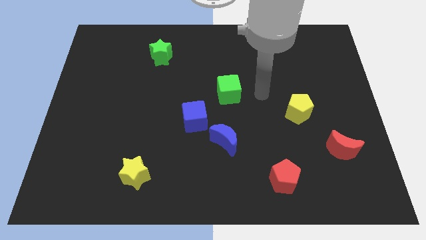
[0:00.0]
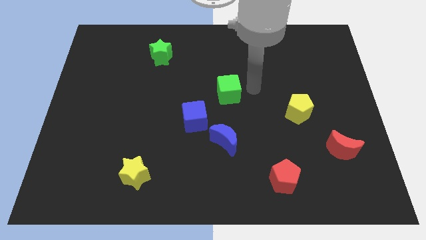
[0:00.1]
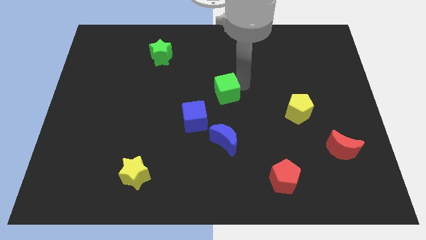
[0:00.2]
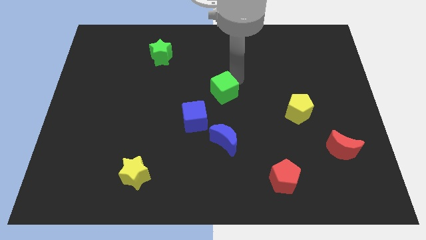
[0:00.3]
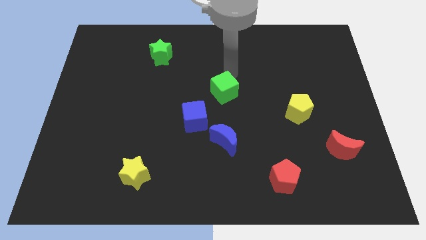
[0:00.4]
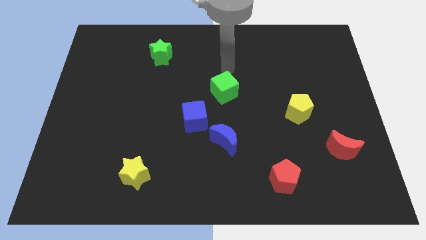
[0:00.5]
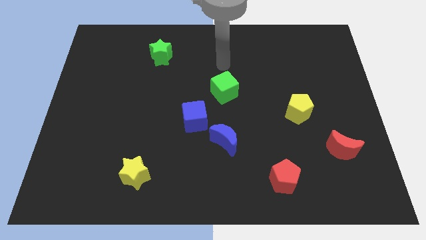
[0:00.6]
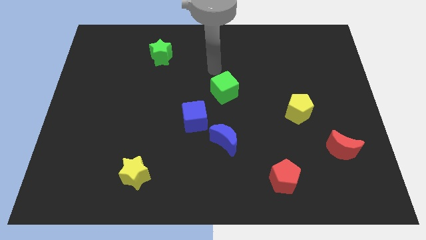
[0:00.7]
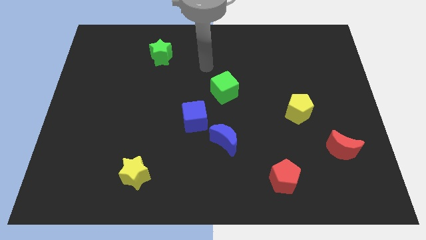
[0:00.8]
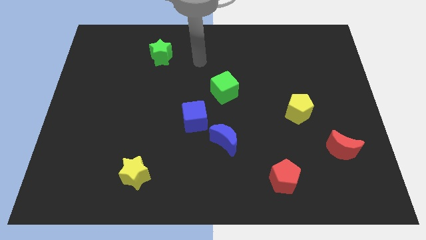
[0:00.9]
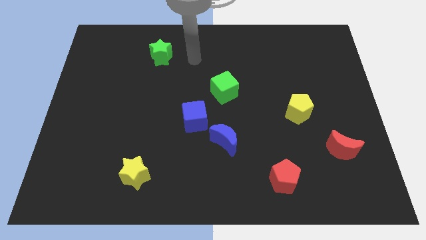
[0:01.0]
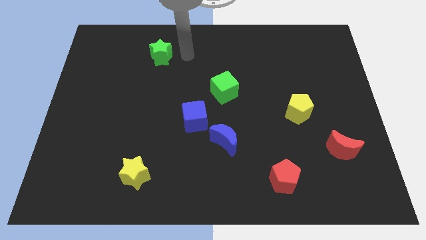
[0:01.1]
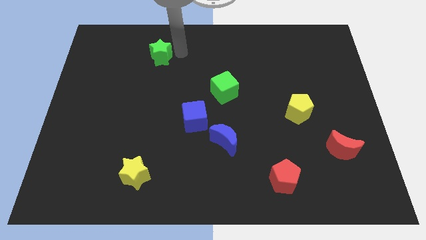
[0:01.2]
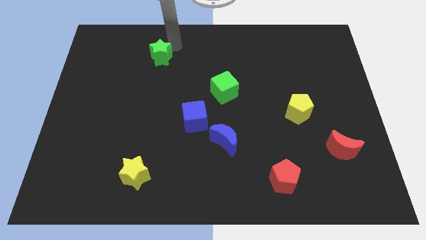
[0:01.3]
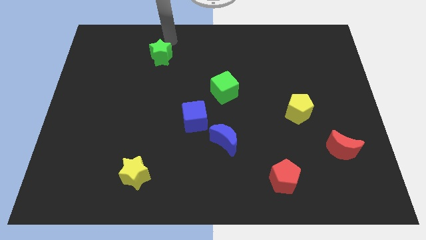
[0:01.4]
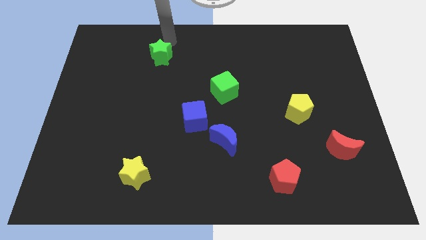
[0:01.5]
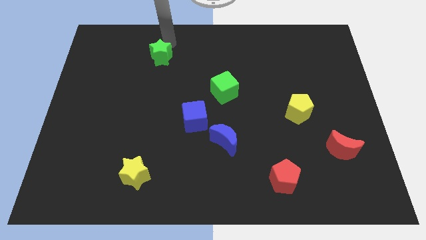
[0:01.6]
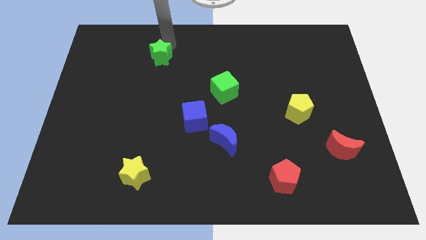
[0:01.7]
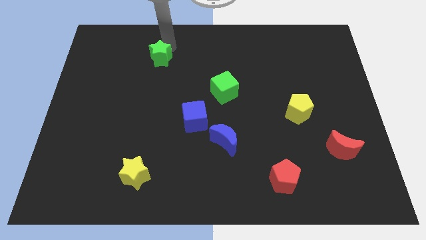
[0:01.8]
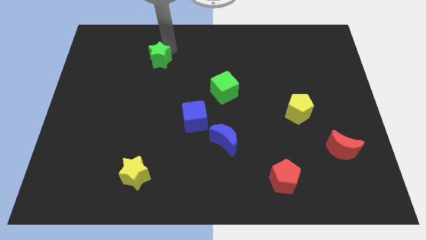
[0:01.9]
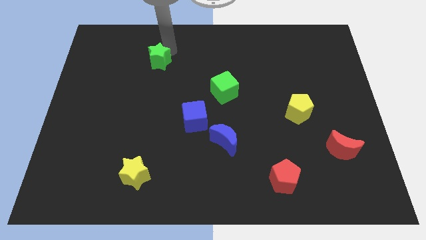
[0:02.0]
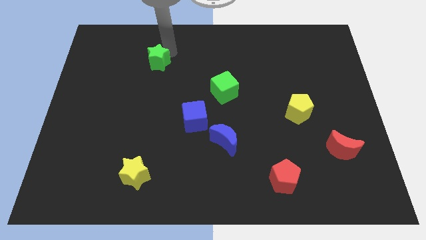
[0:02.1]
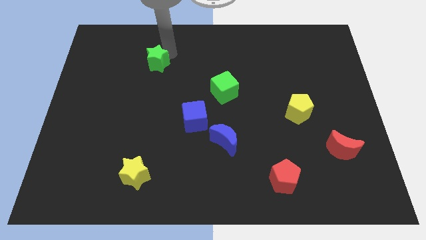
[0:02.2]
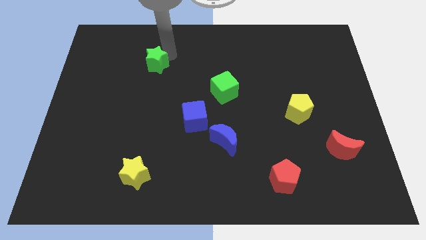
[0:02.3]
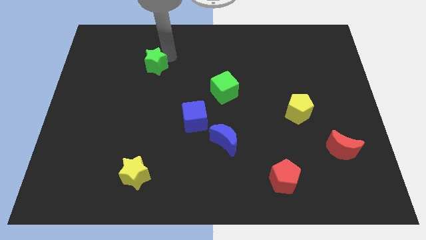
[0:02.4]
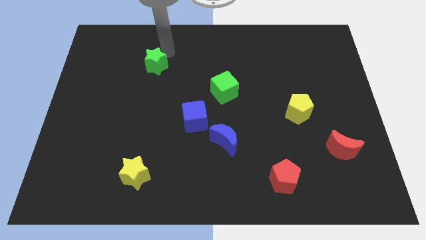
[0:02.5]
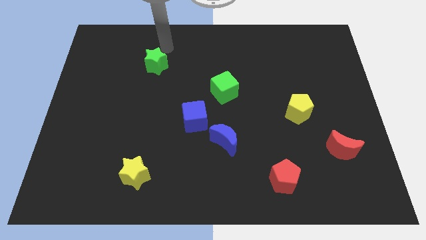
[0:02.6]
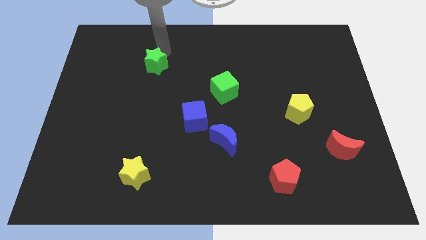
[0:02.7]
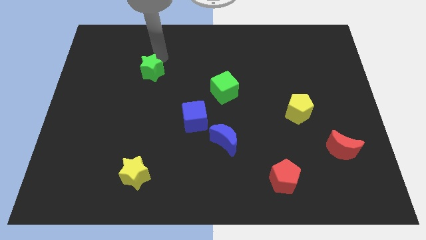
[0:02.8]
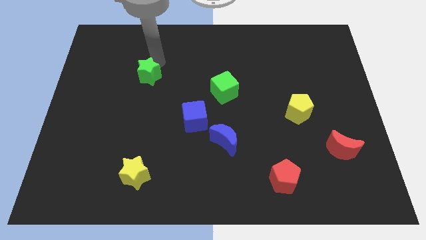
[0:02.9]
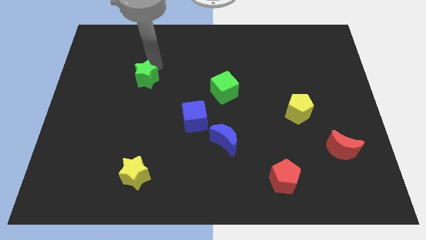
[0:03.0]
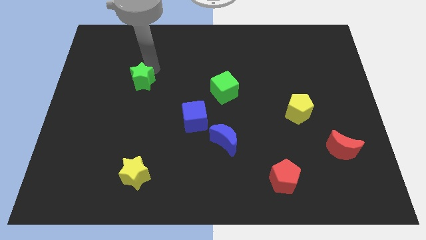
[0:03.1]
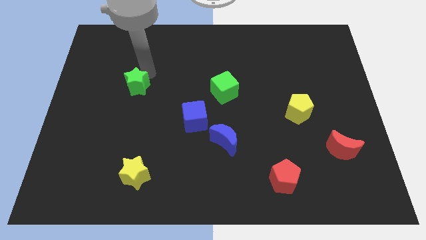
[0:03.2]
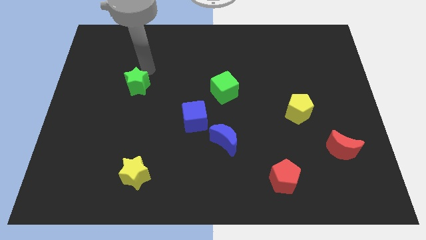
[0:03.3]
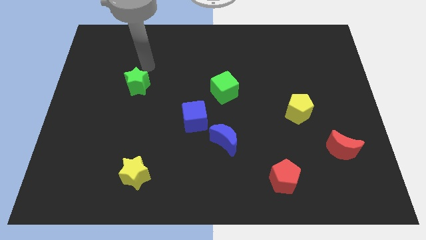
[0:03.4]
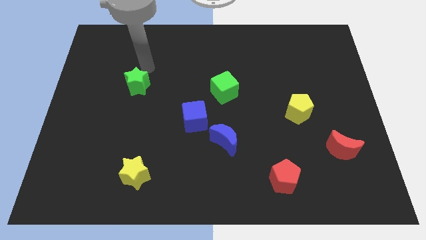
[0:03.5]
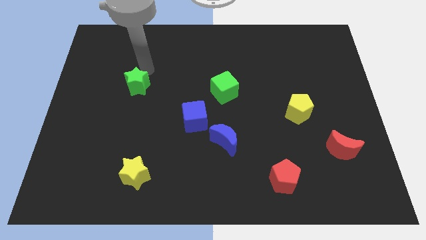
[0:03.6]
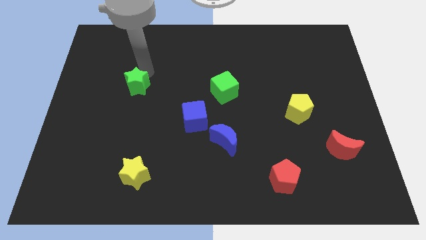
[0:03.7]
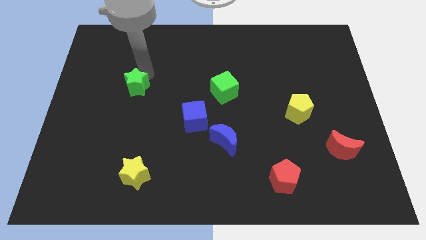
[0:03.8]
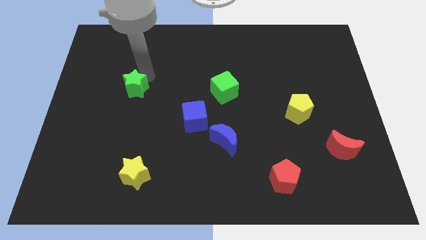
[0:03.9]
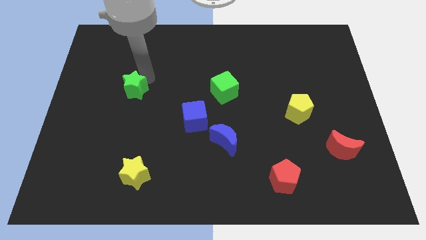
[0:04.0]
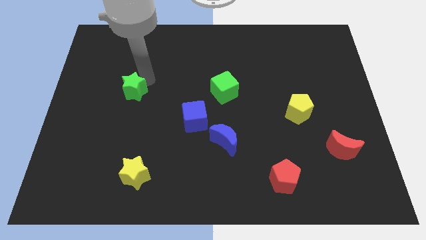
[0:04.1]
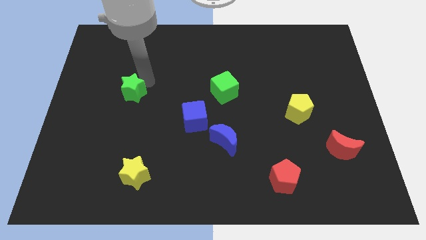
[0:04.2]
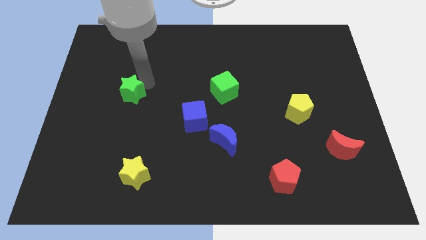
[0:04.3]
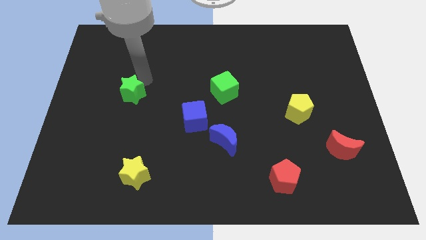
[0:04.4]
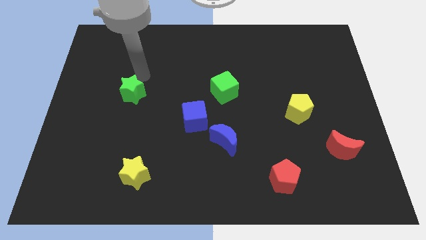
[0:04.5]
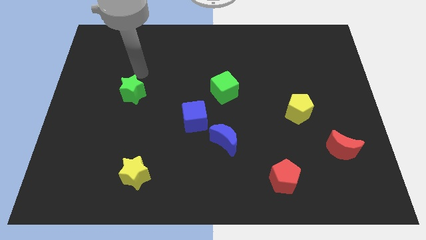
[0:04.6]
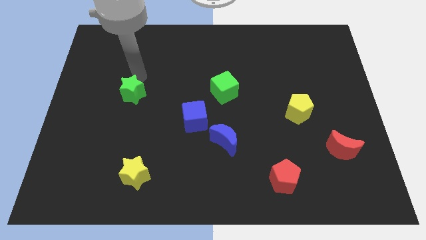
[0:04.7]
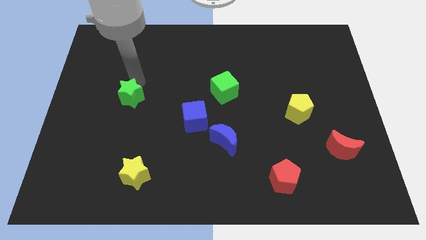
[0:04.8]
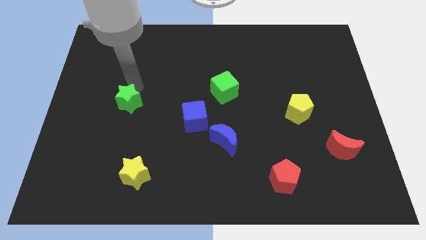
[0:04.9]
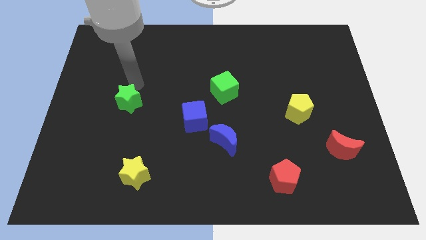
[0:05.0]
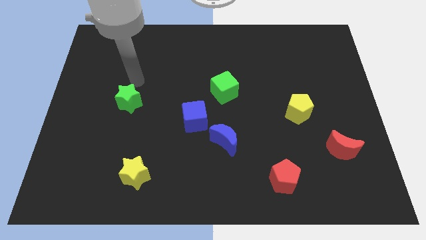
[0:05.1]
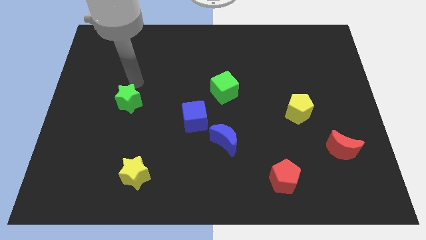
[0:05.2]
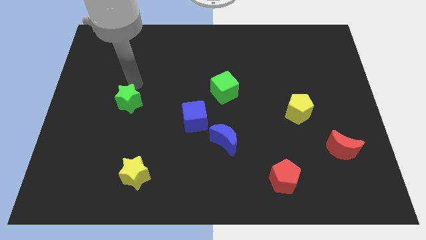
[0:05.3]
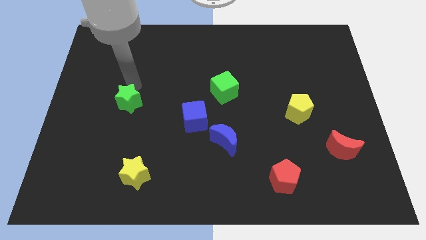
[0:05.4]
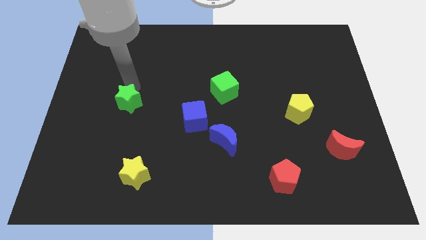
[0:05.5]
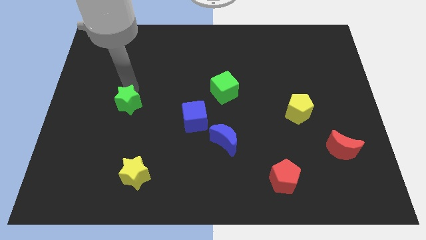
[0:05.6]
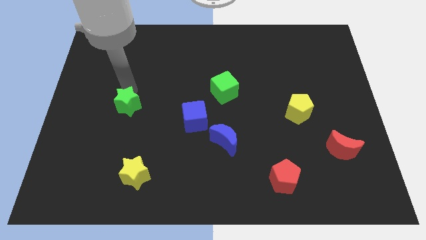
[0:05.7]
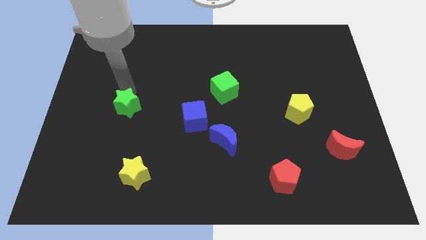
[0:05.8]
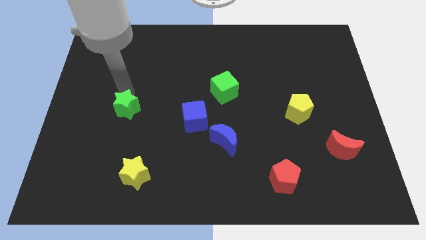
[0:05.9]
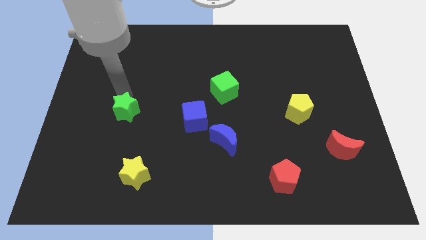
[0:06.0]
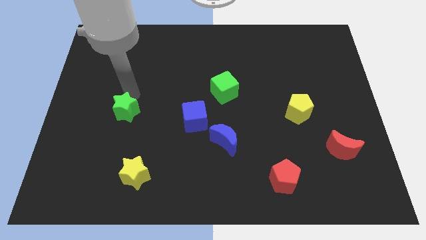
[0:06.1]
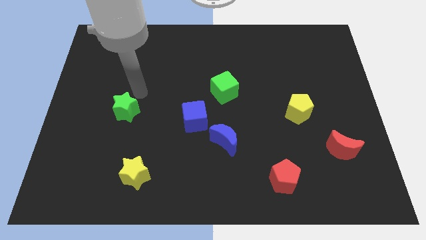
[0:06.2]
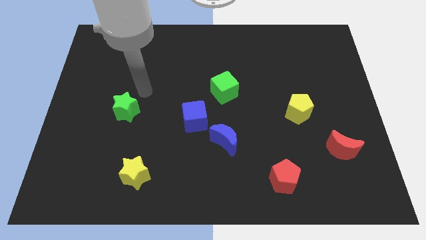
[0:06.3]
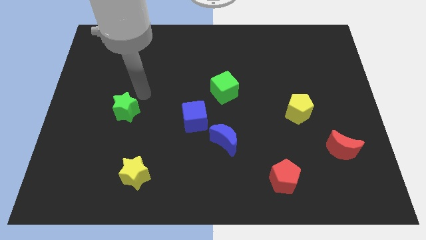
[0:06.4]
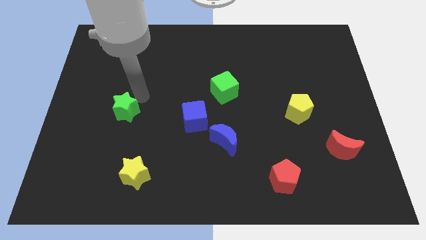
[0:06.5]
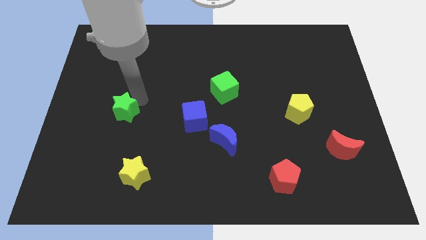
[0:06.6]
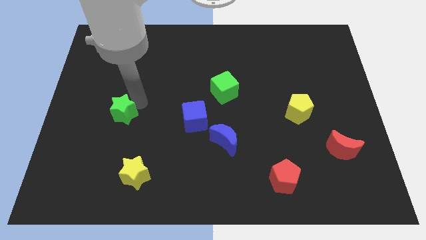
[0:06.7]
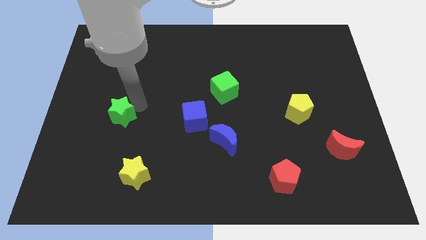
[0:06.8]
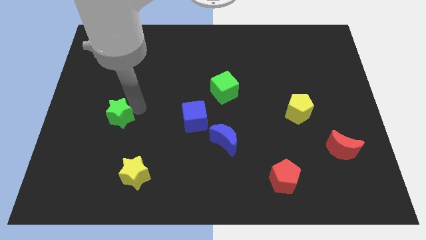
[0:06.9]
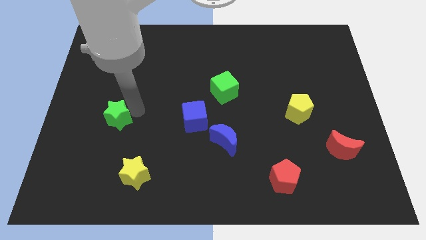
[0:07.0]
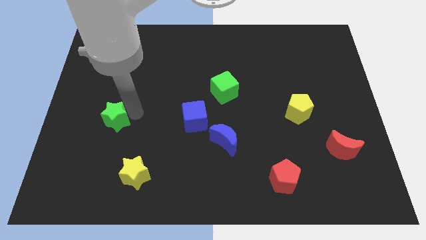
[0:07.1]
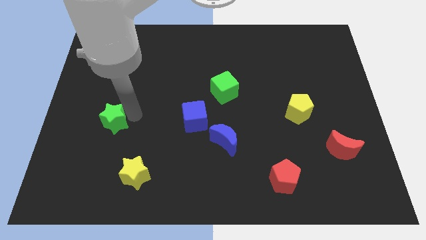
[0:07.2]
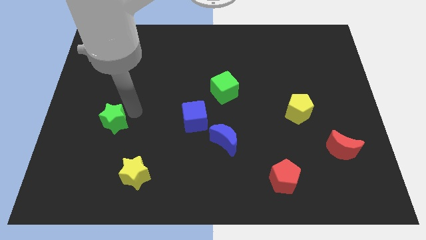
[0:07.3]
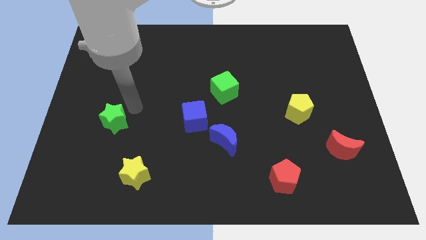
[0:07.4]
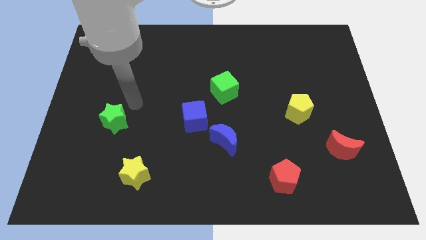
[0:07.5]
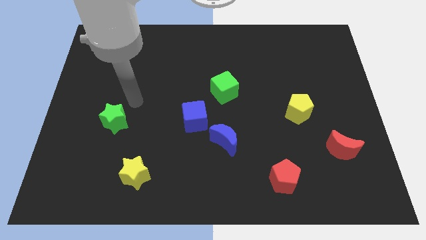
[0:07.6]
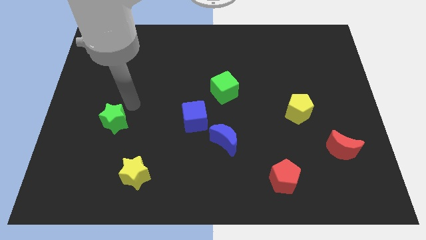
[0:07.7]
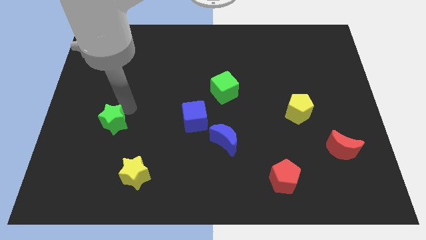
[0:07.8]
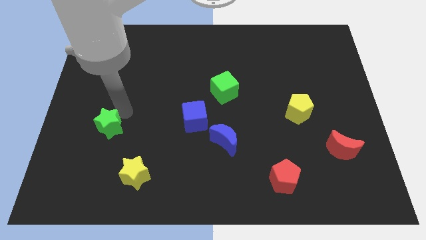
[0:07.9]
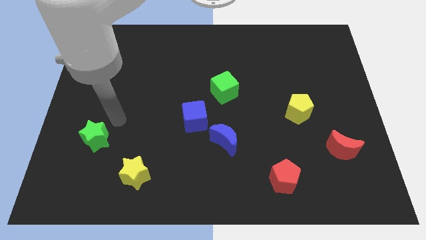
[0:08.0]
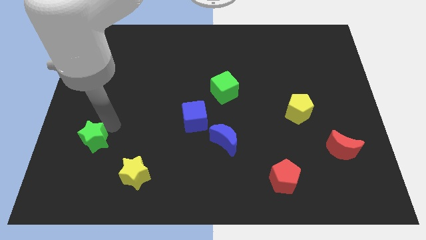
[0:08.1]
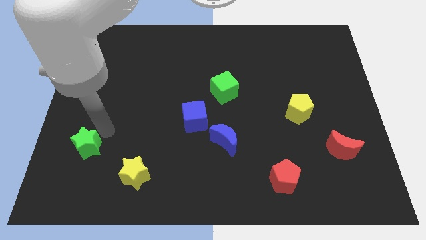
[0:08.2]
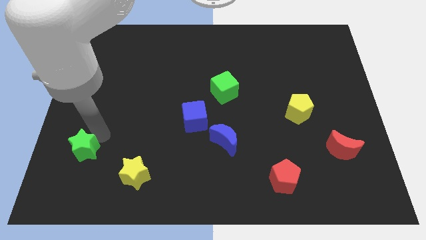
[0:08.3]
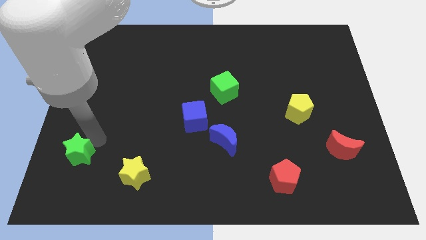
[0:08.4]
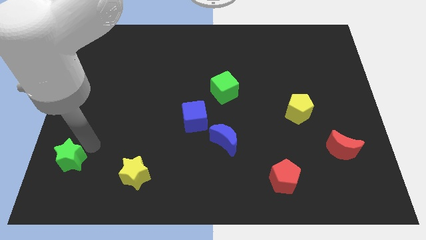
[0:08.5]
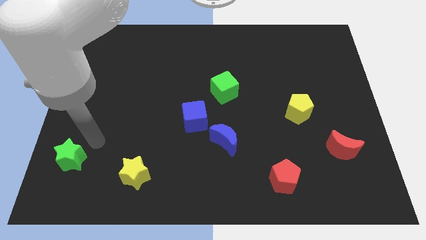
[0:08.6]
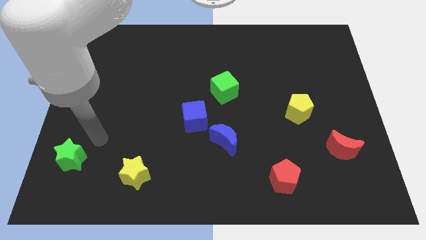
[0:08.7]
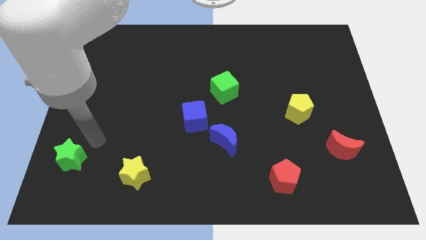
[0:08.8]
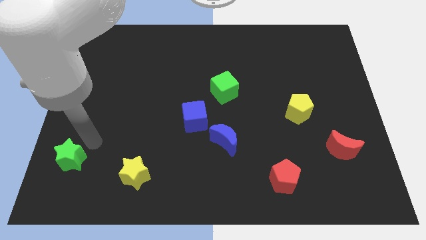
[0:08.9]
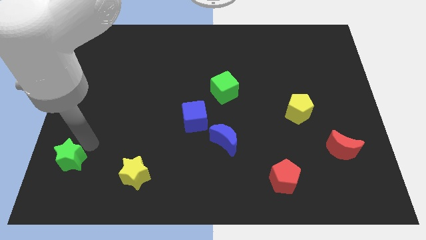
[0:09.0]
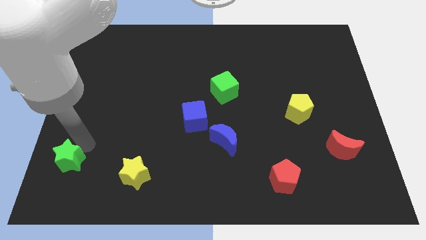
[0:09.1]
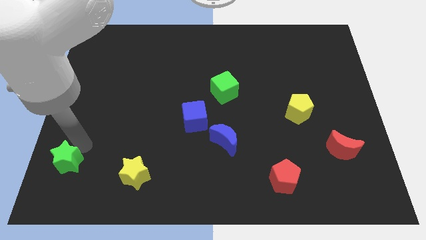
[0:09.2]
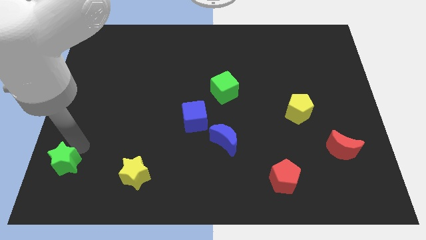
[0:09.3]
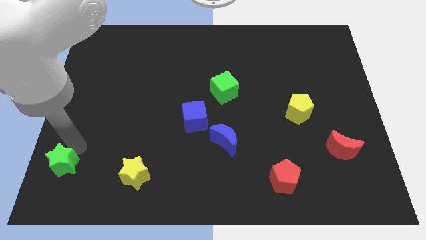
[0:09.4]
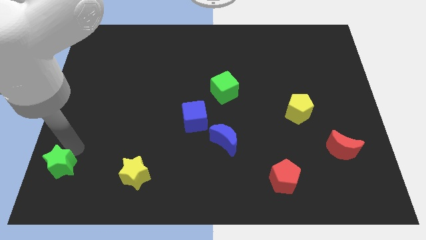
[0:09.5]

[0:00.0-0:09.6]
put the green star to the bottom left of the board
